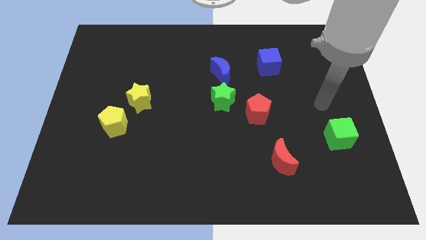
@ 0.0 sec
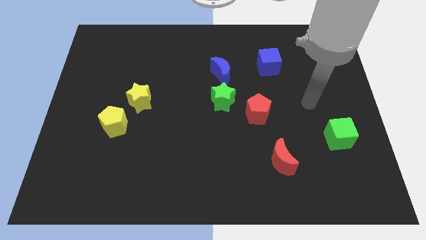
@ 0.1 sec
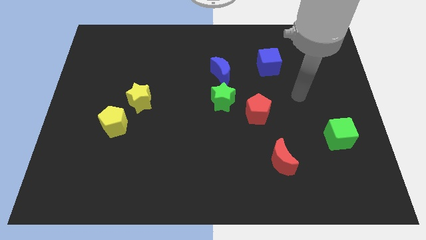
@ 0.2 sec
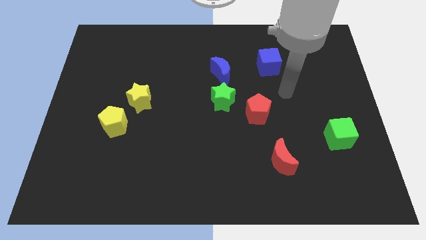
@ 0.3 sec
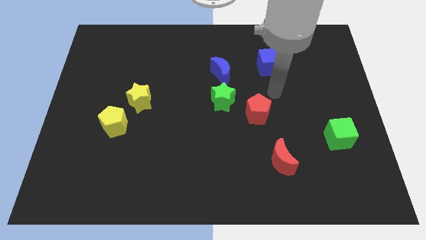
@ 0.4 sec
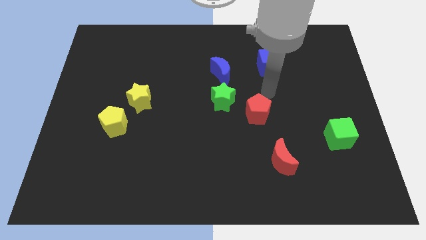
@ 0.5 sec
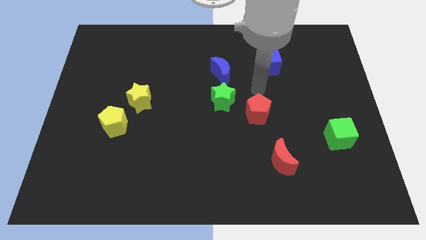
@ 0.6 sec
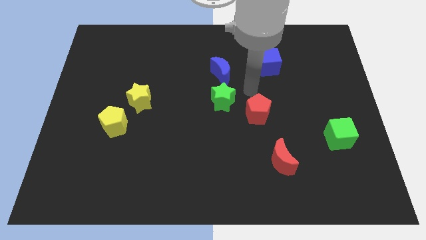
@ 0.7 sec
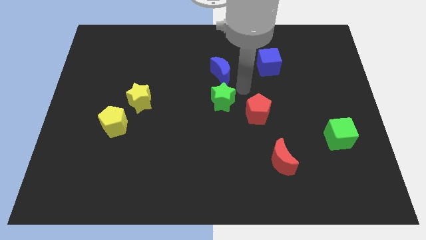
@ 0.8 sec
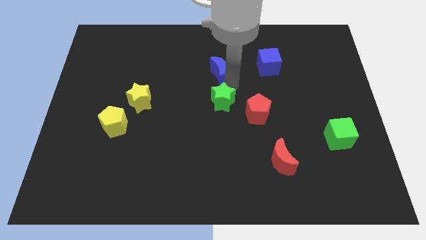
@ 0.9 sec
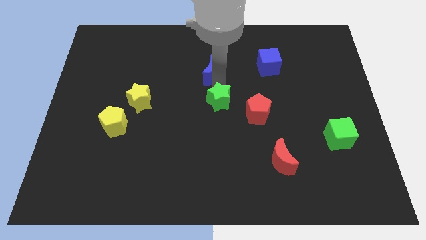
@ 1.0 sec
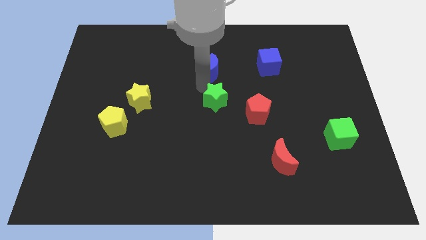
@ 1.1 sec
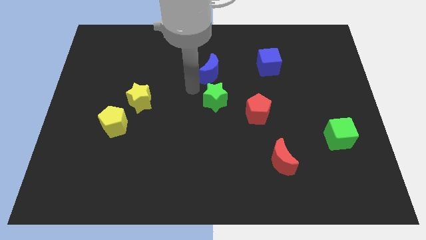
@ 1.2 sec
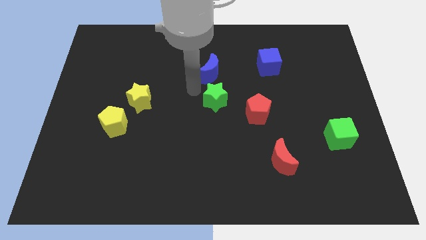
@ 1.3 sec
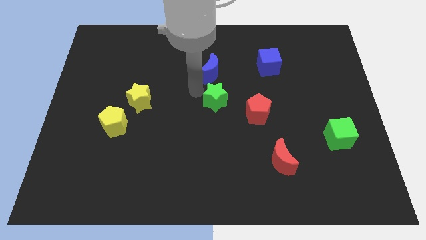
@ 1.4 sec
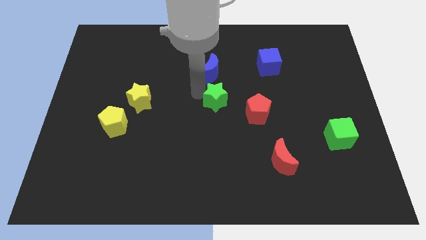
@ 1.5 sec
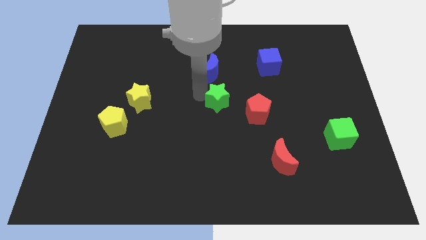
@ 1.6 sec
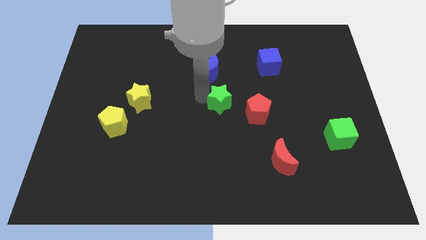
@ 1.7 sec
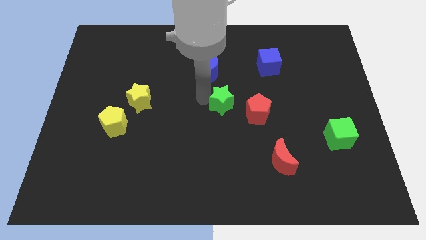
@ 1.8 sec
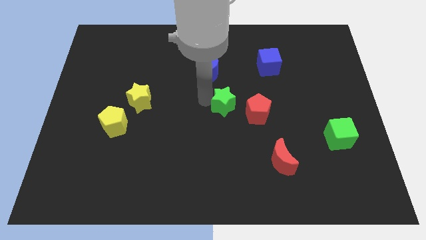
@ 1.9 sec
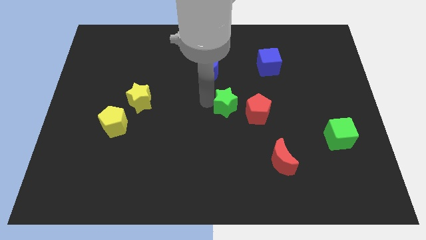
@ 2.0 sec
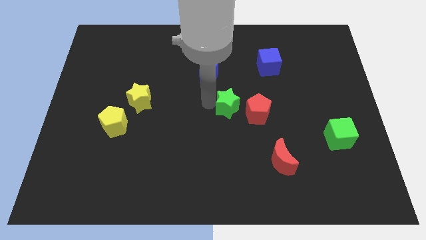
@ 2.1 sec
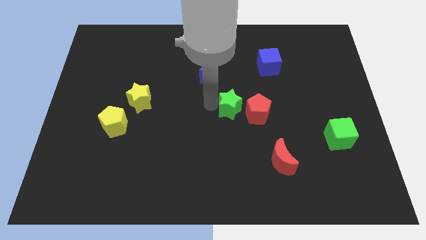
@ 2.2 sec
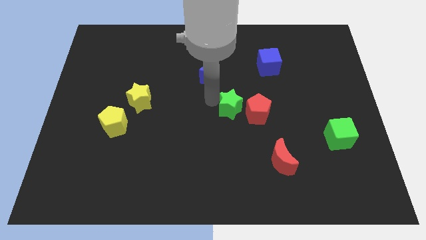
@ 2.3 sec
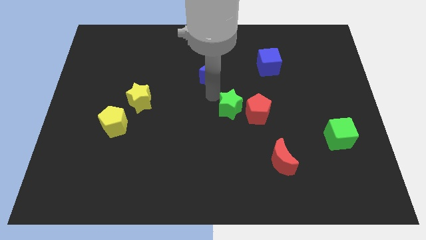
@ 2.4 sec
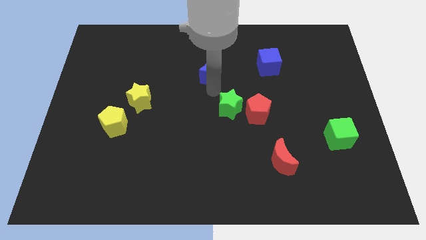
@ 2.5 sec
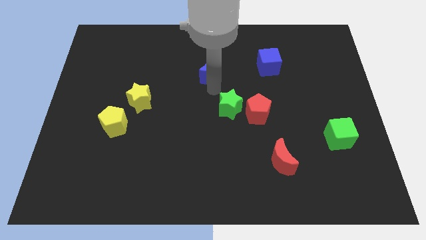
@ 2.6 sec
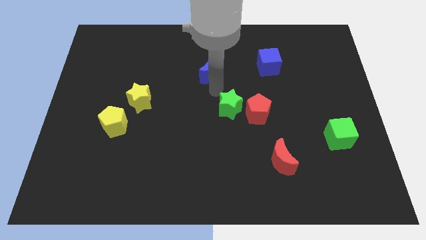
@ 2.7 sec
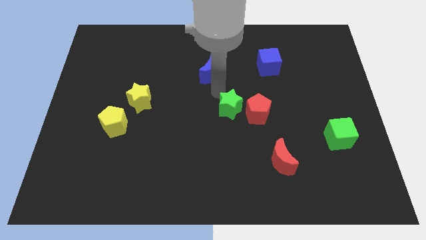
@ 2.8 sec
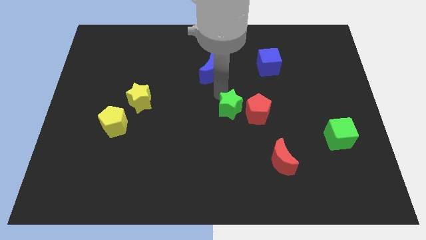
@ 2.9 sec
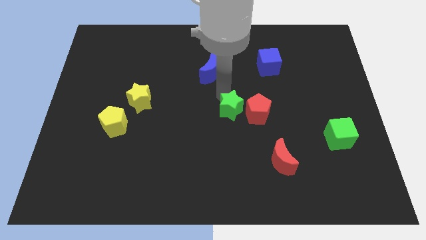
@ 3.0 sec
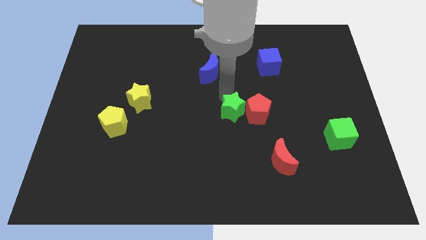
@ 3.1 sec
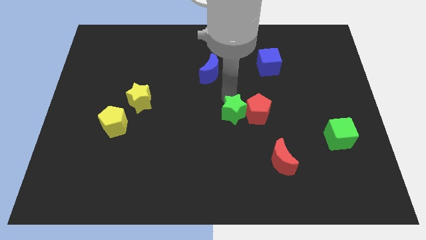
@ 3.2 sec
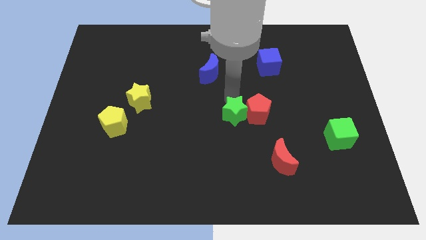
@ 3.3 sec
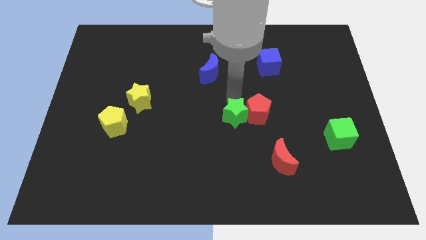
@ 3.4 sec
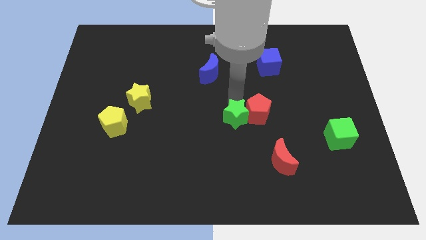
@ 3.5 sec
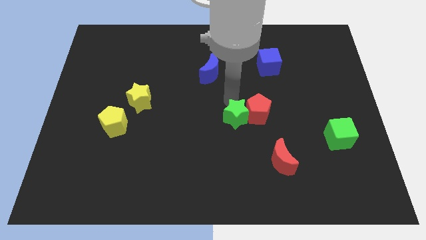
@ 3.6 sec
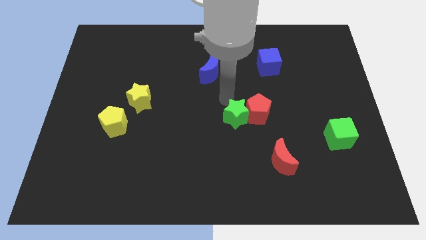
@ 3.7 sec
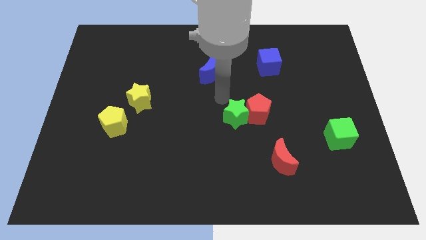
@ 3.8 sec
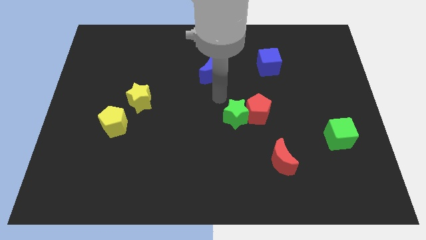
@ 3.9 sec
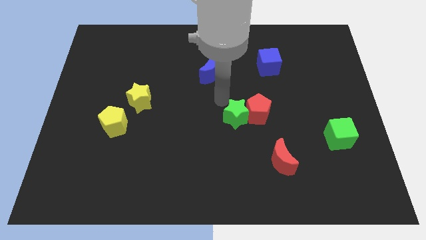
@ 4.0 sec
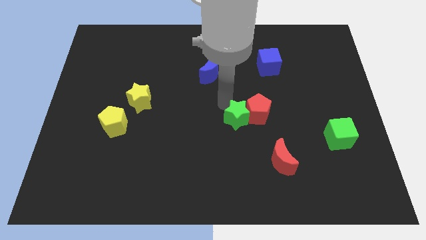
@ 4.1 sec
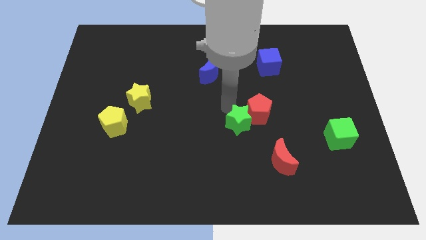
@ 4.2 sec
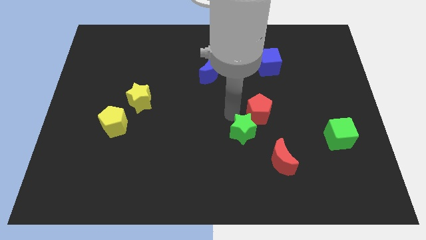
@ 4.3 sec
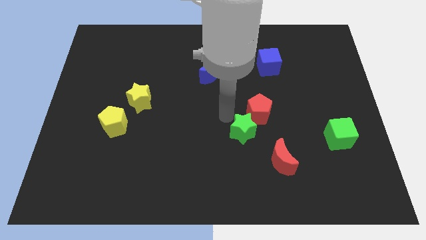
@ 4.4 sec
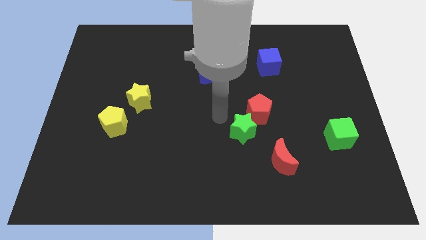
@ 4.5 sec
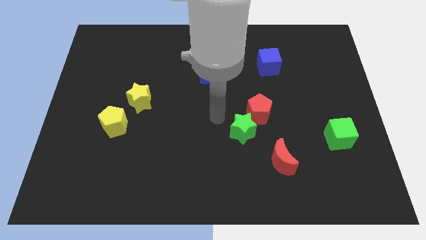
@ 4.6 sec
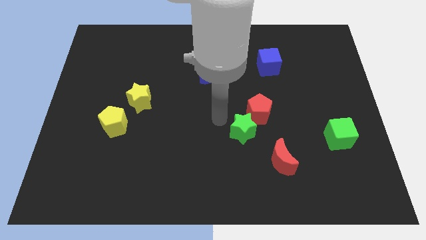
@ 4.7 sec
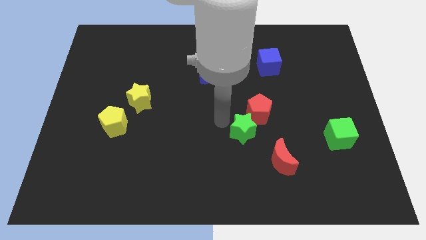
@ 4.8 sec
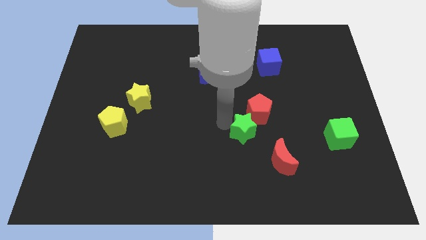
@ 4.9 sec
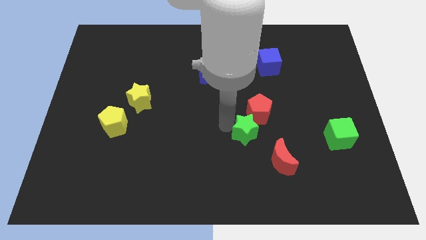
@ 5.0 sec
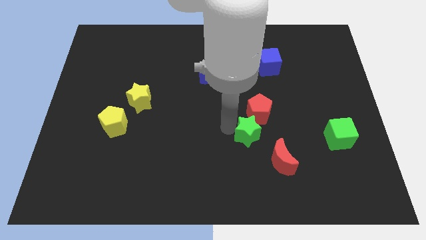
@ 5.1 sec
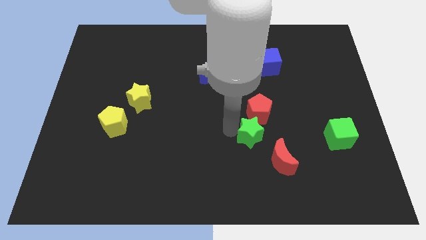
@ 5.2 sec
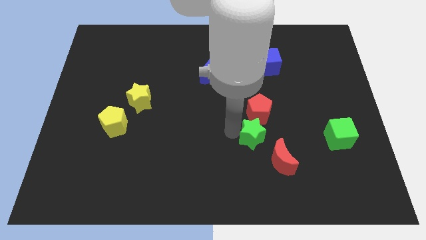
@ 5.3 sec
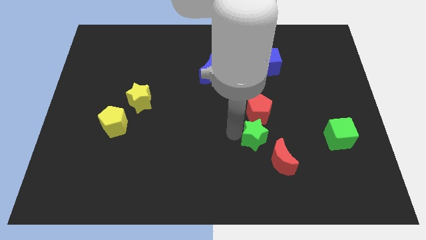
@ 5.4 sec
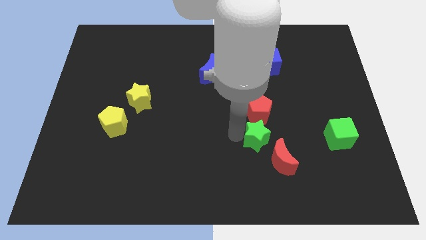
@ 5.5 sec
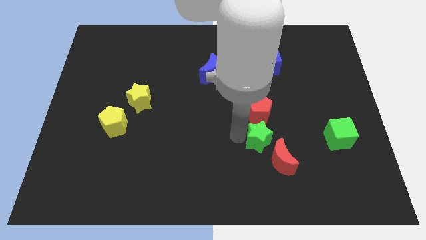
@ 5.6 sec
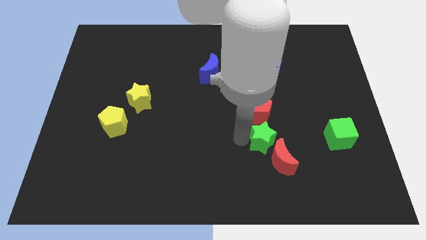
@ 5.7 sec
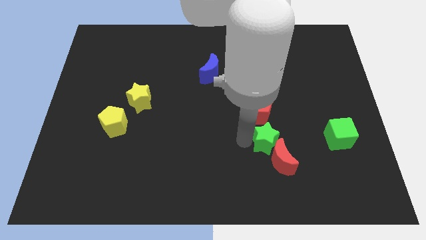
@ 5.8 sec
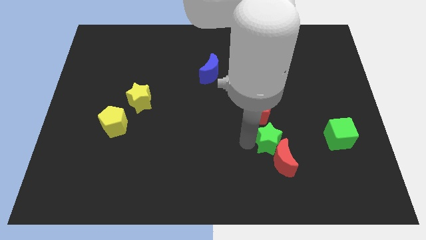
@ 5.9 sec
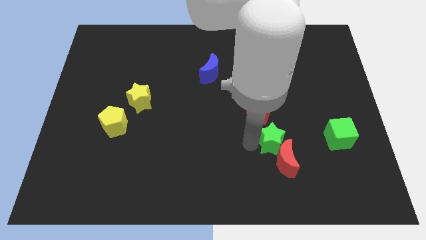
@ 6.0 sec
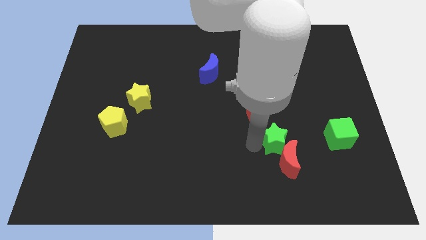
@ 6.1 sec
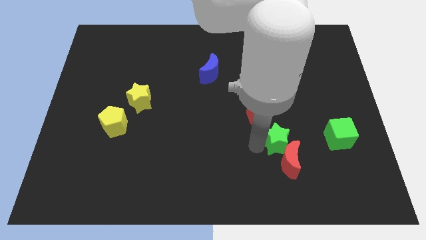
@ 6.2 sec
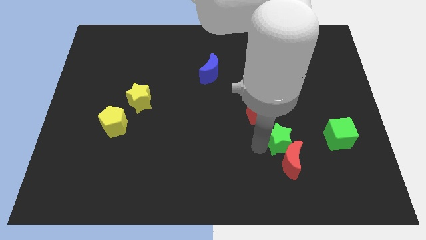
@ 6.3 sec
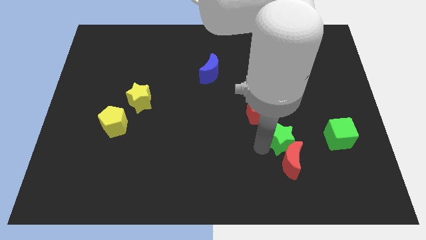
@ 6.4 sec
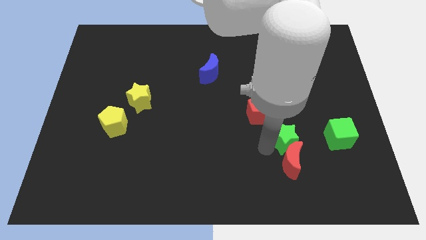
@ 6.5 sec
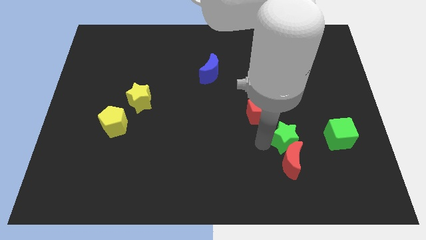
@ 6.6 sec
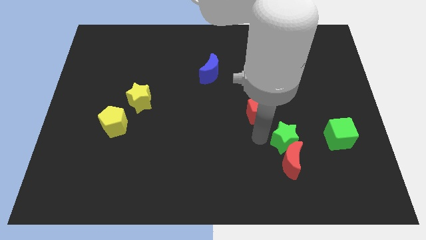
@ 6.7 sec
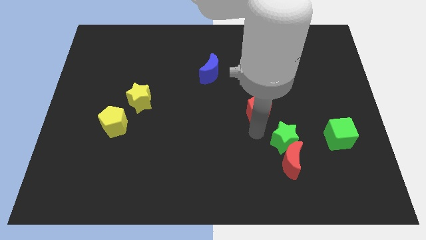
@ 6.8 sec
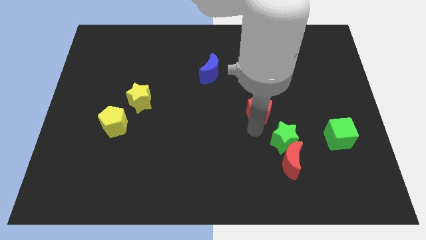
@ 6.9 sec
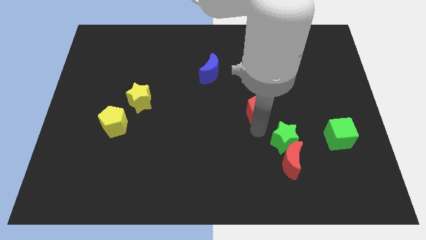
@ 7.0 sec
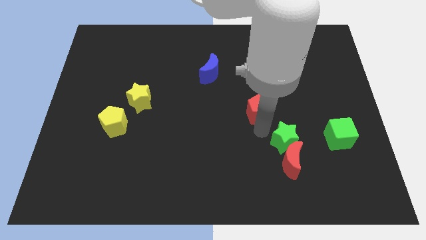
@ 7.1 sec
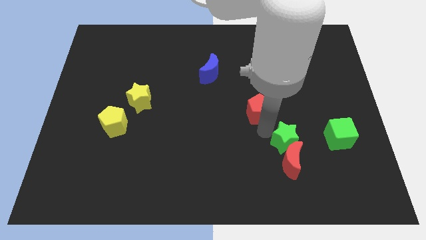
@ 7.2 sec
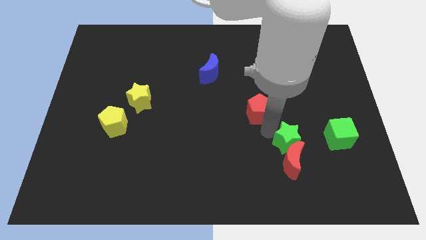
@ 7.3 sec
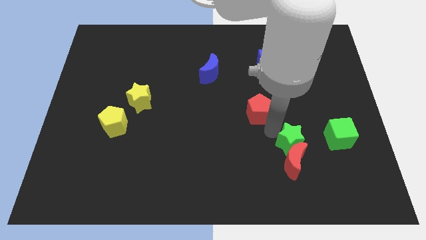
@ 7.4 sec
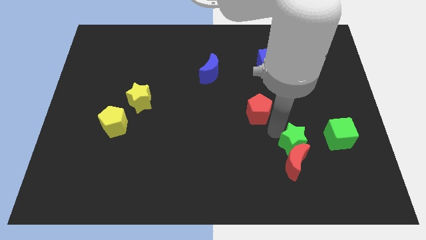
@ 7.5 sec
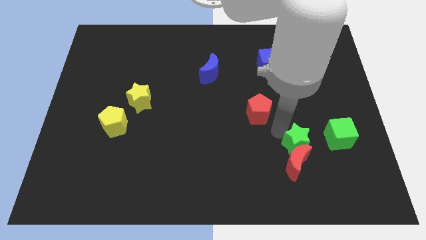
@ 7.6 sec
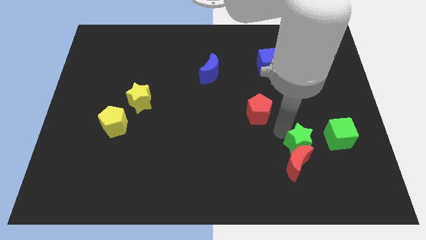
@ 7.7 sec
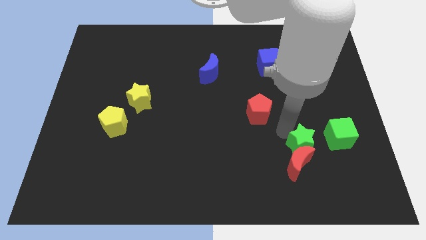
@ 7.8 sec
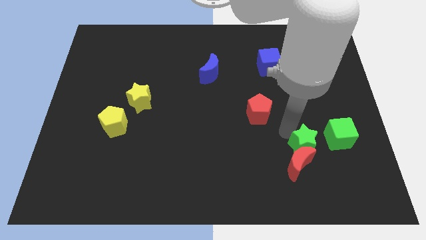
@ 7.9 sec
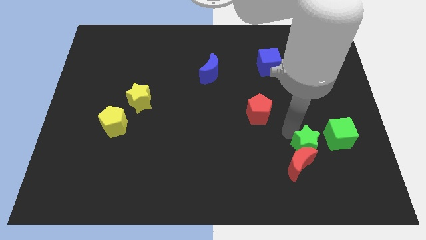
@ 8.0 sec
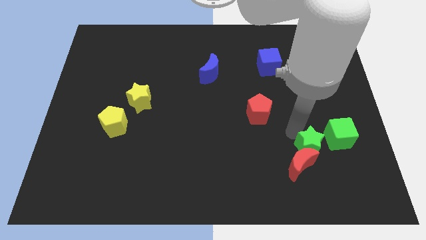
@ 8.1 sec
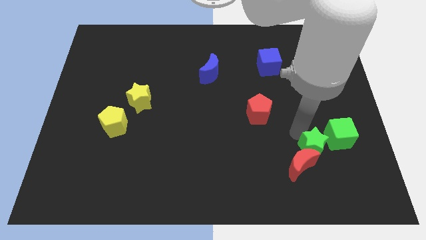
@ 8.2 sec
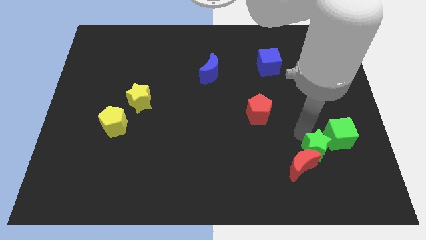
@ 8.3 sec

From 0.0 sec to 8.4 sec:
put the green star right of the red moon
